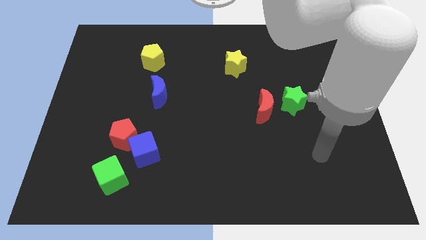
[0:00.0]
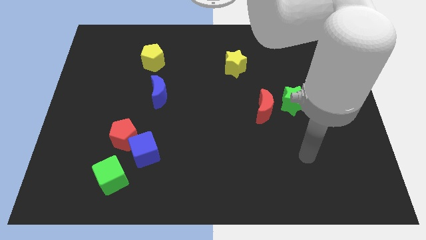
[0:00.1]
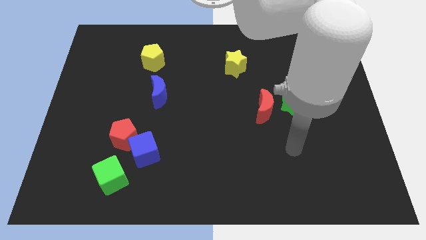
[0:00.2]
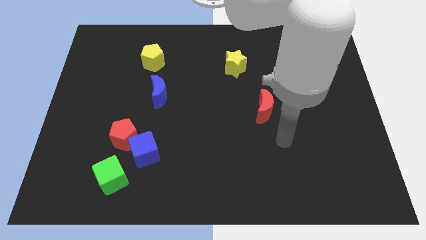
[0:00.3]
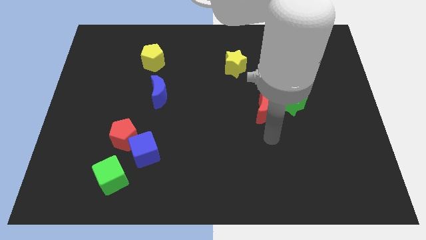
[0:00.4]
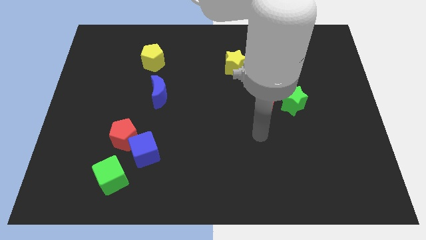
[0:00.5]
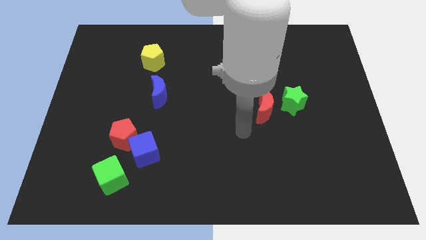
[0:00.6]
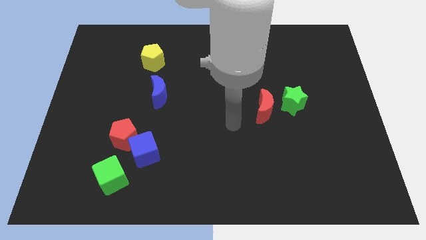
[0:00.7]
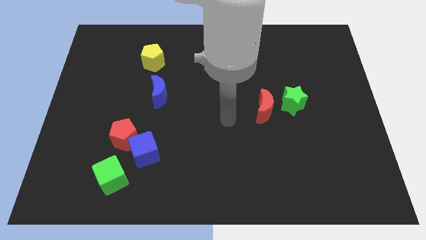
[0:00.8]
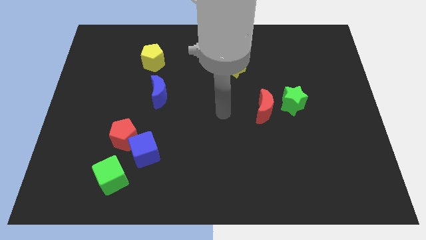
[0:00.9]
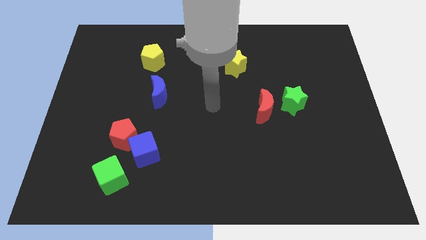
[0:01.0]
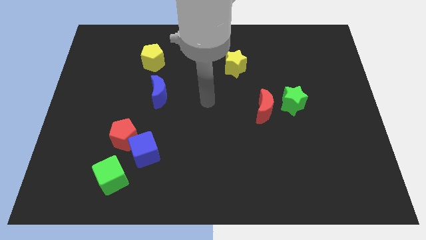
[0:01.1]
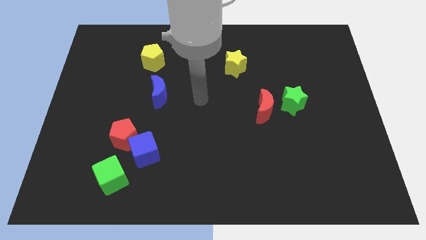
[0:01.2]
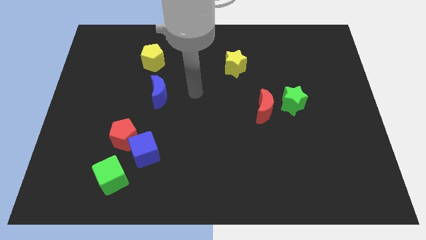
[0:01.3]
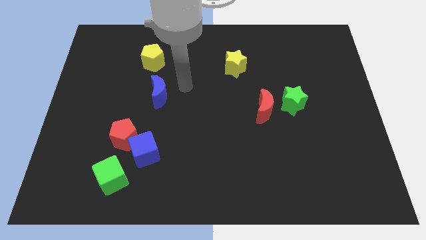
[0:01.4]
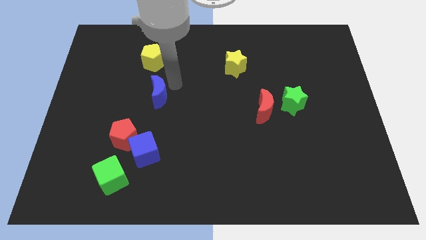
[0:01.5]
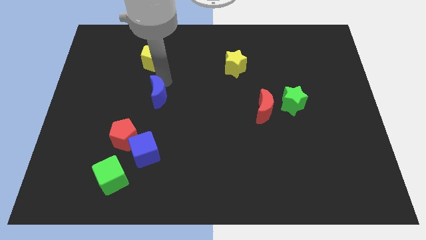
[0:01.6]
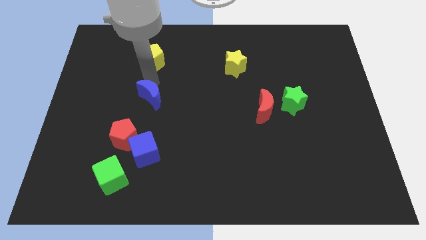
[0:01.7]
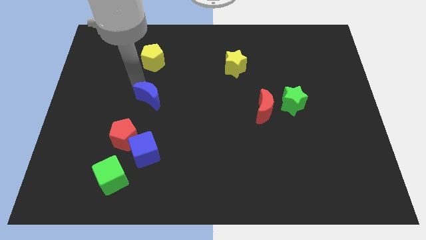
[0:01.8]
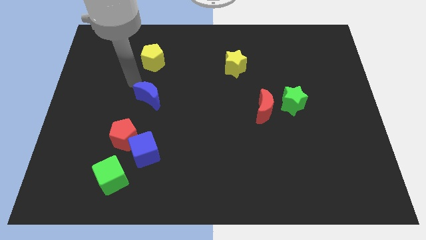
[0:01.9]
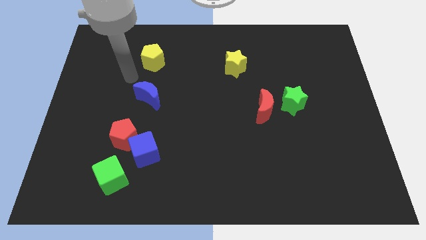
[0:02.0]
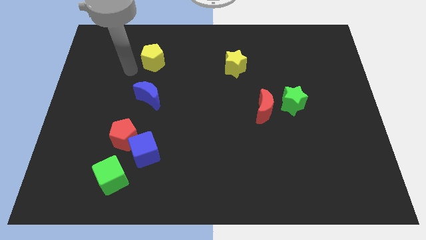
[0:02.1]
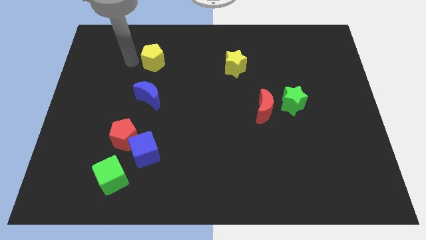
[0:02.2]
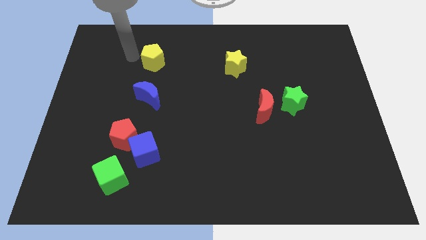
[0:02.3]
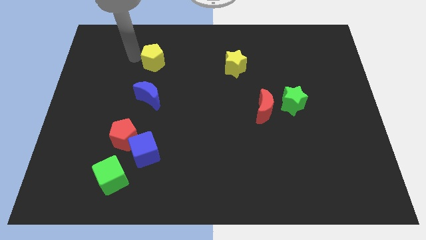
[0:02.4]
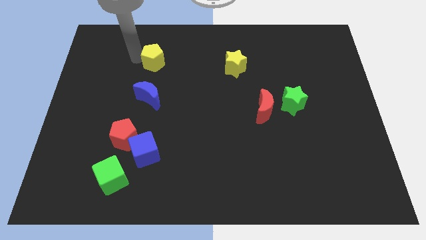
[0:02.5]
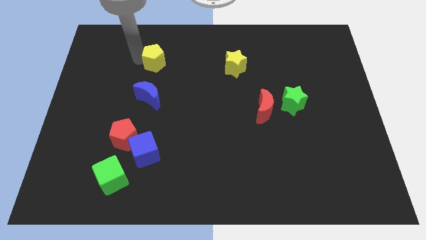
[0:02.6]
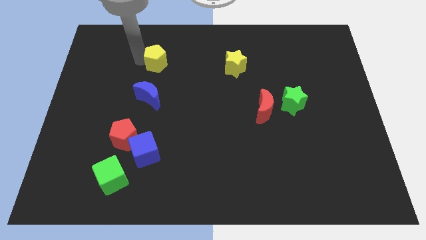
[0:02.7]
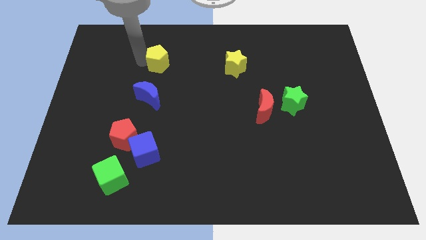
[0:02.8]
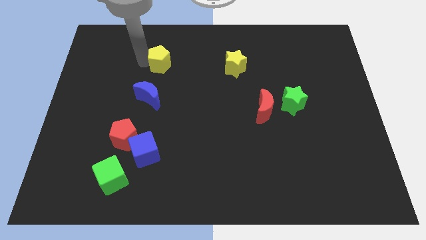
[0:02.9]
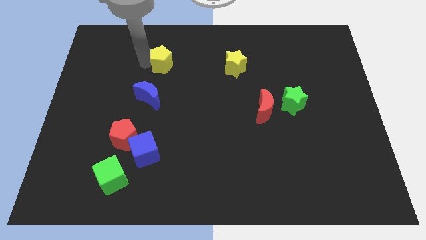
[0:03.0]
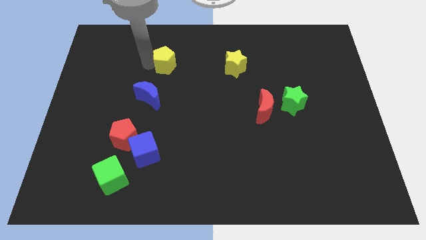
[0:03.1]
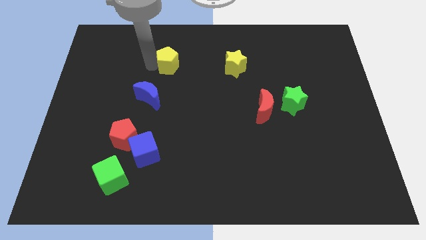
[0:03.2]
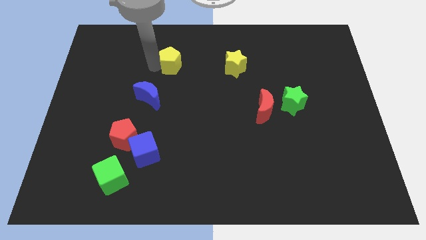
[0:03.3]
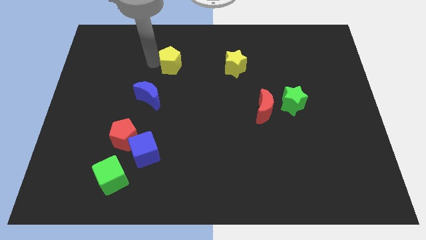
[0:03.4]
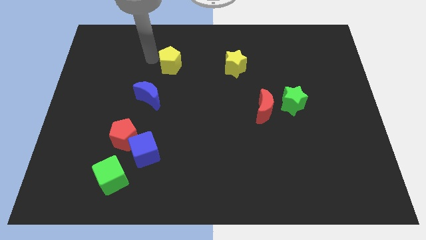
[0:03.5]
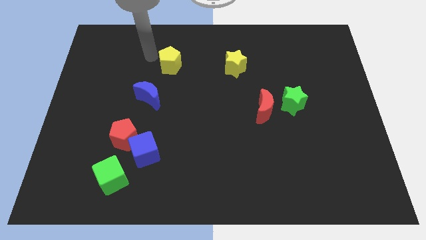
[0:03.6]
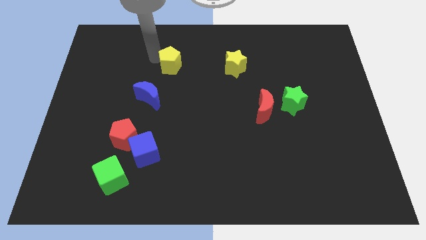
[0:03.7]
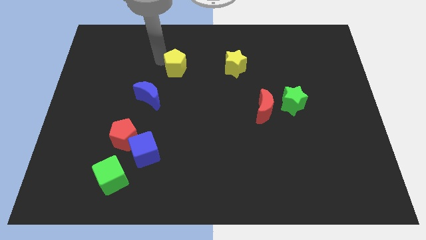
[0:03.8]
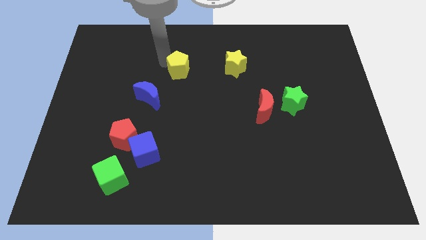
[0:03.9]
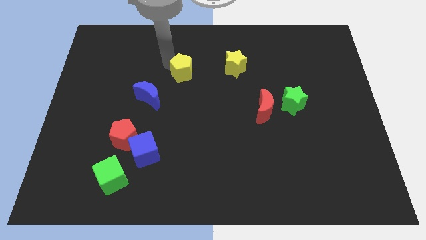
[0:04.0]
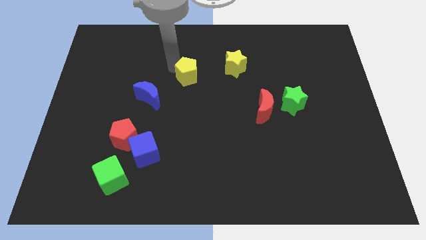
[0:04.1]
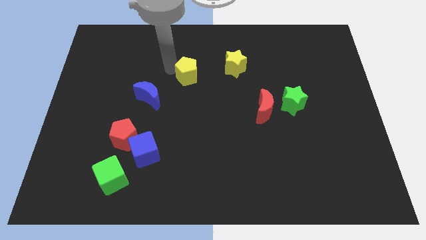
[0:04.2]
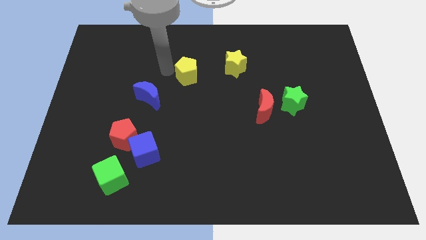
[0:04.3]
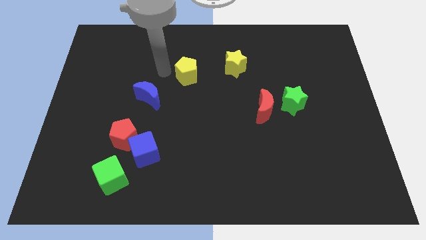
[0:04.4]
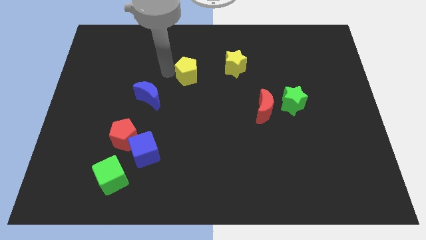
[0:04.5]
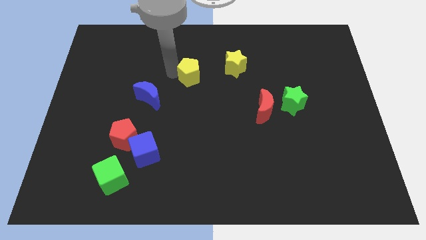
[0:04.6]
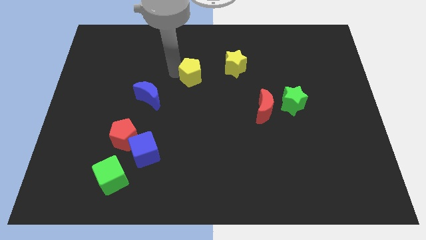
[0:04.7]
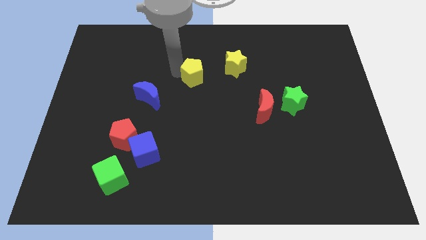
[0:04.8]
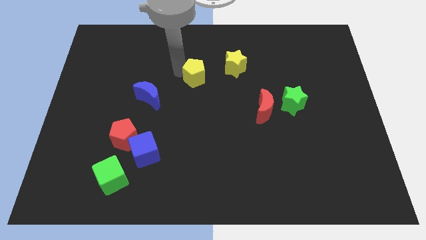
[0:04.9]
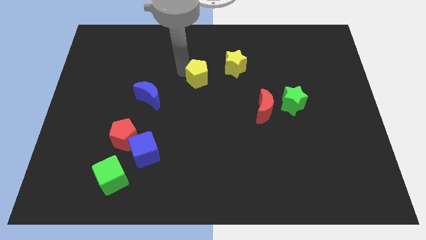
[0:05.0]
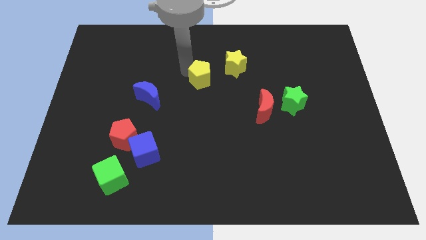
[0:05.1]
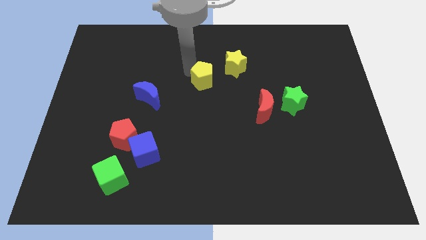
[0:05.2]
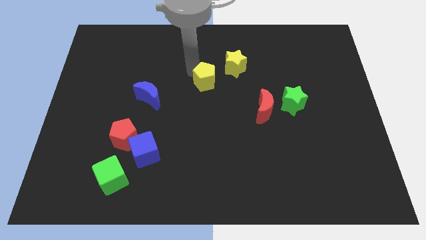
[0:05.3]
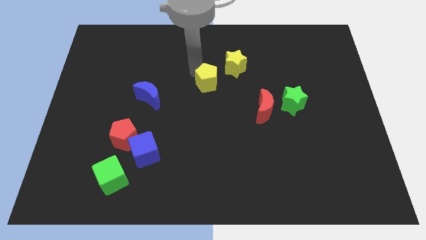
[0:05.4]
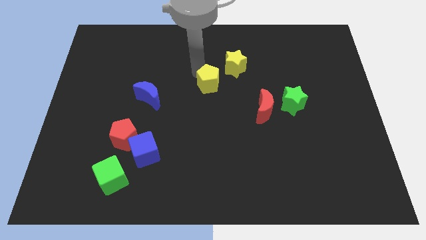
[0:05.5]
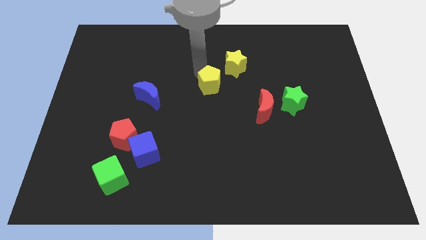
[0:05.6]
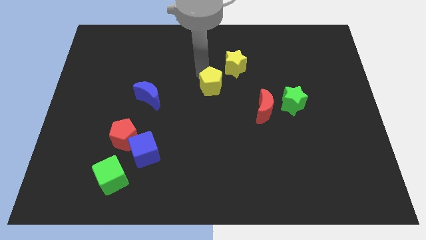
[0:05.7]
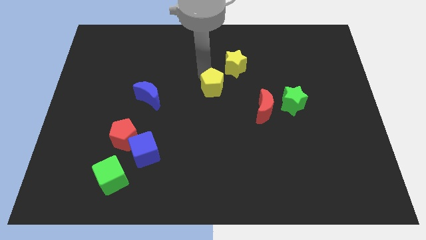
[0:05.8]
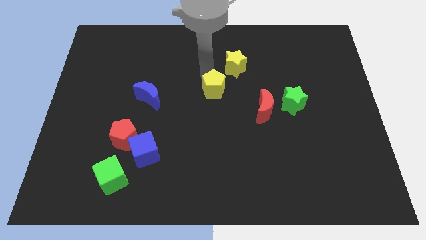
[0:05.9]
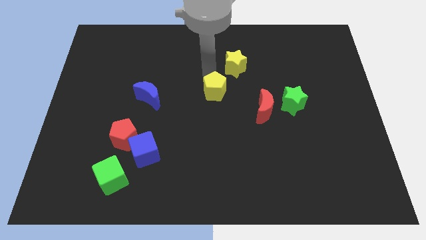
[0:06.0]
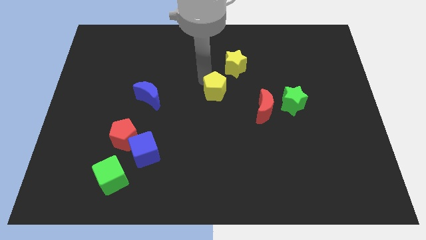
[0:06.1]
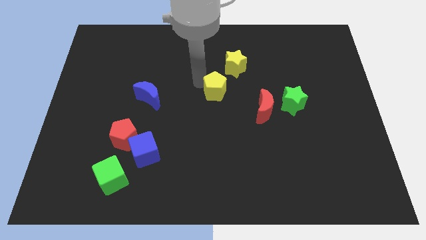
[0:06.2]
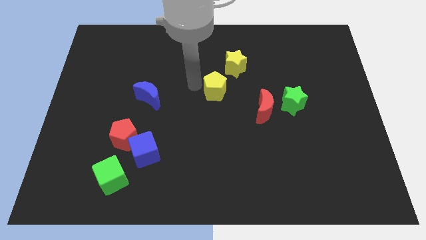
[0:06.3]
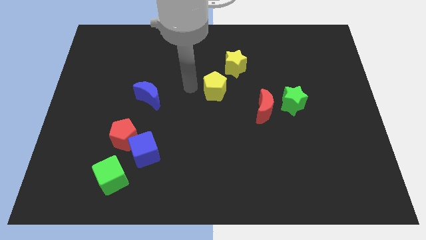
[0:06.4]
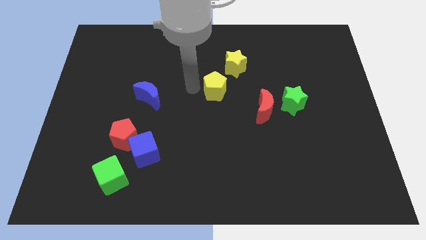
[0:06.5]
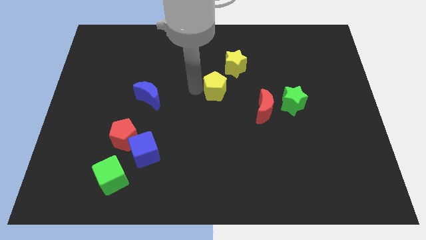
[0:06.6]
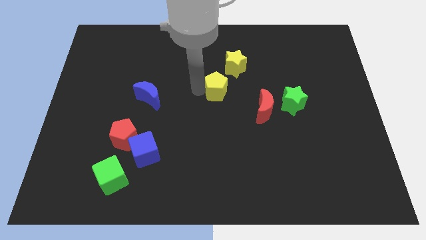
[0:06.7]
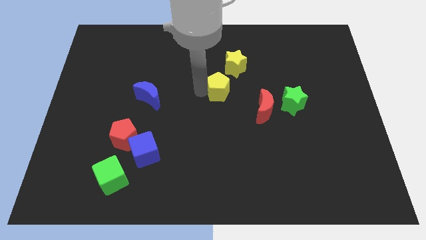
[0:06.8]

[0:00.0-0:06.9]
move the yellow pentagon to the top left side of the red moon
